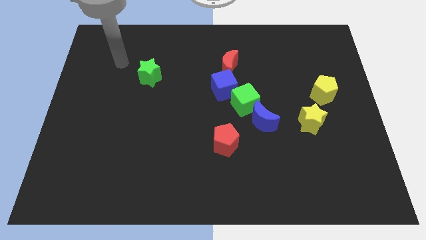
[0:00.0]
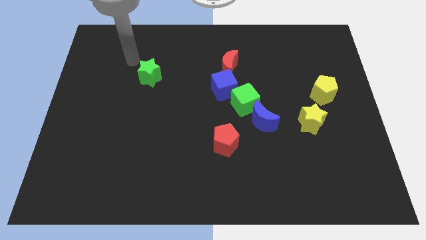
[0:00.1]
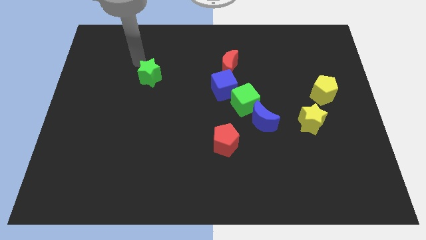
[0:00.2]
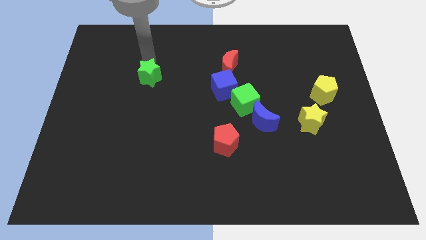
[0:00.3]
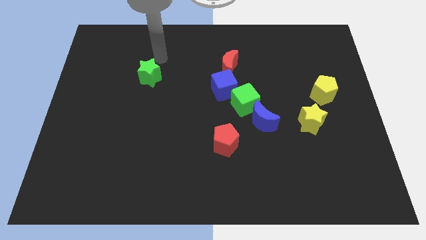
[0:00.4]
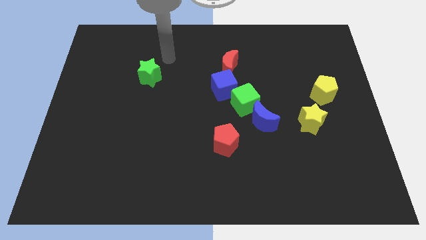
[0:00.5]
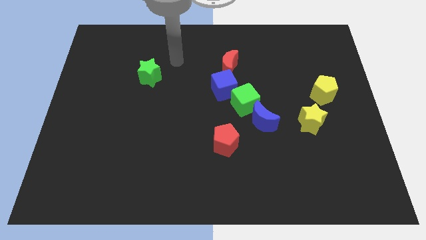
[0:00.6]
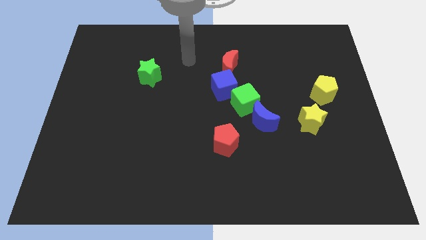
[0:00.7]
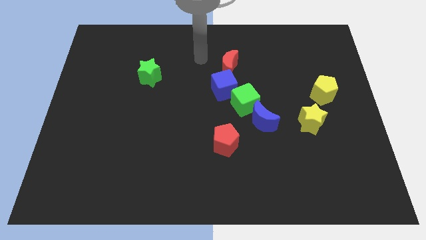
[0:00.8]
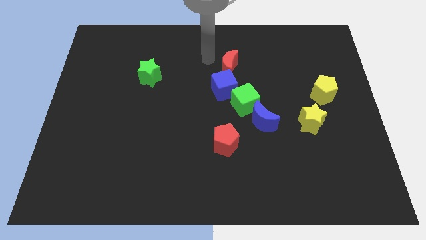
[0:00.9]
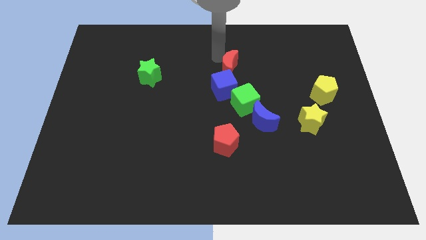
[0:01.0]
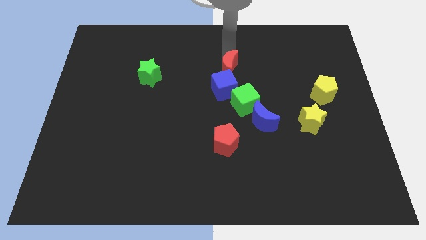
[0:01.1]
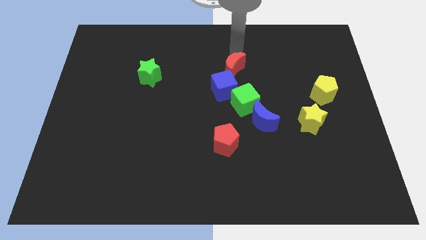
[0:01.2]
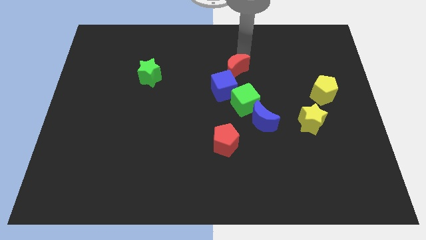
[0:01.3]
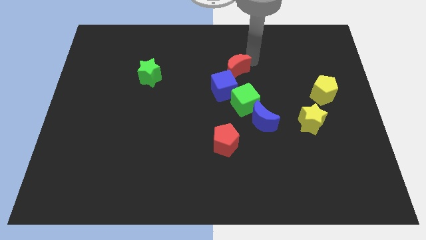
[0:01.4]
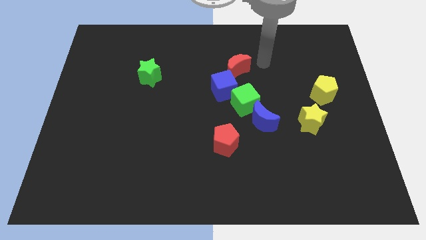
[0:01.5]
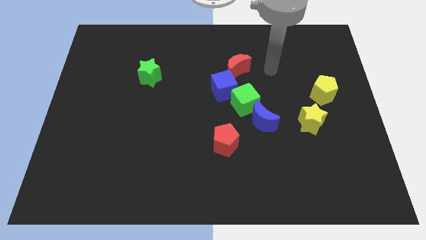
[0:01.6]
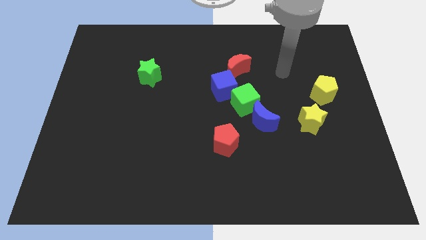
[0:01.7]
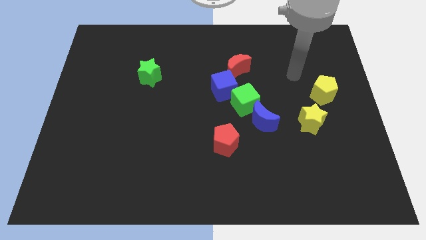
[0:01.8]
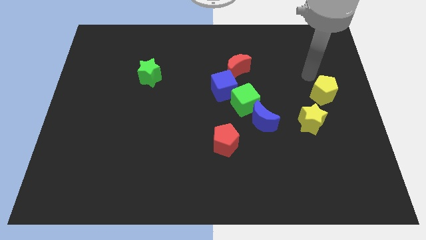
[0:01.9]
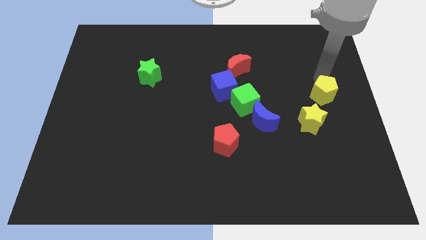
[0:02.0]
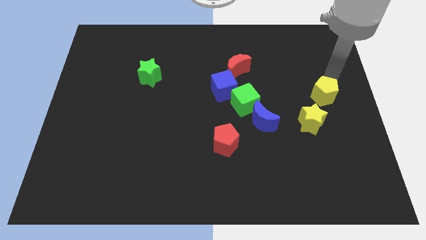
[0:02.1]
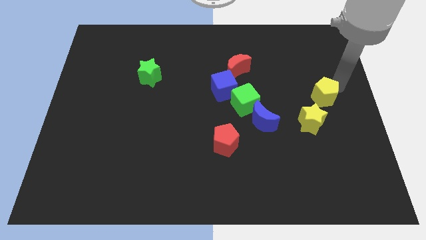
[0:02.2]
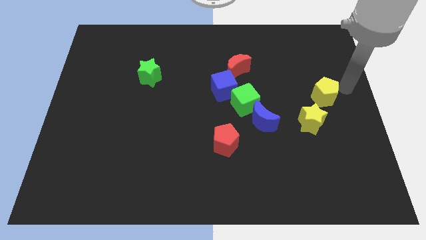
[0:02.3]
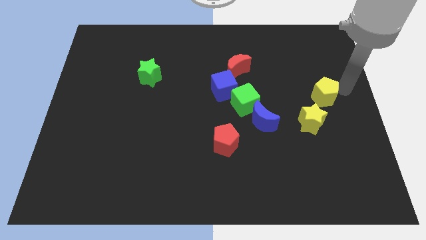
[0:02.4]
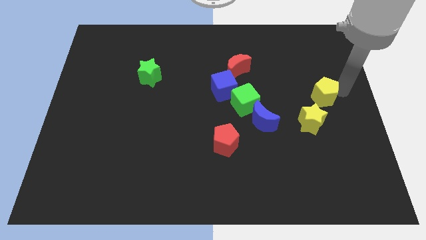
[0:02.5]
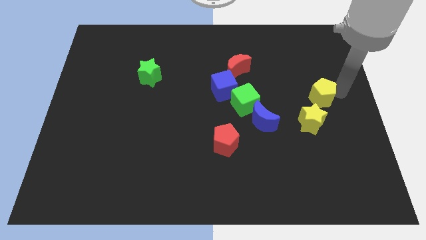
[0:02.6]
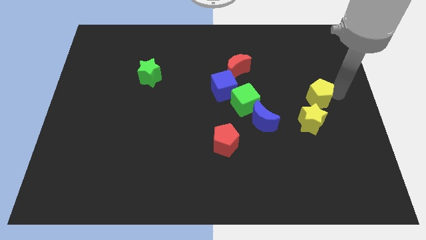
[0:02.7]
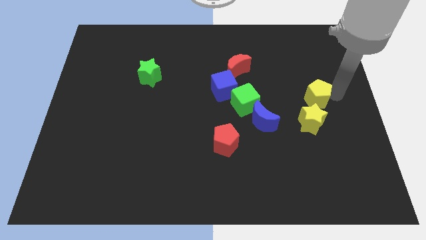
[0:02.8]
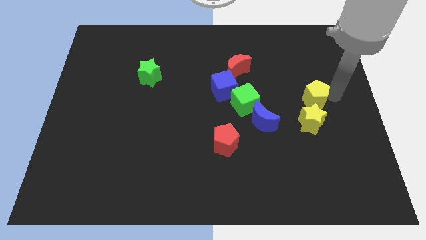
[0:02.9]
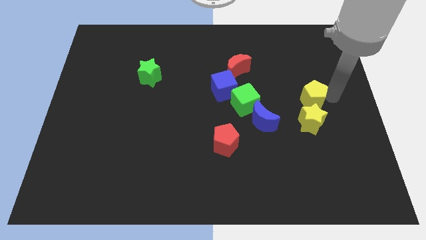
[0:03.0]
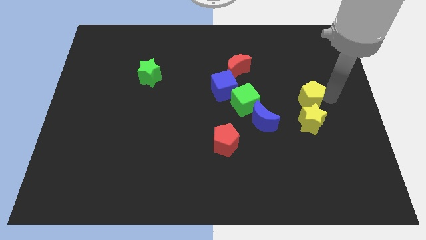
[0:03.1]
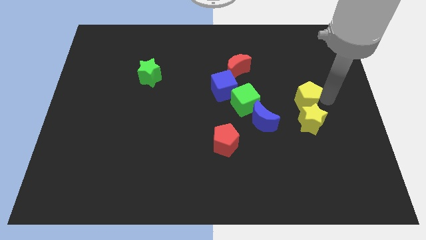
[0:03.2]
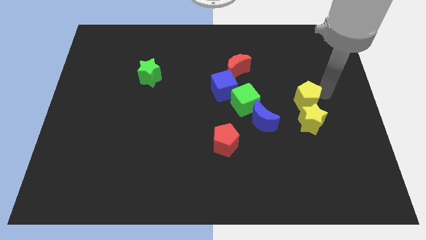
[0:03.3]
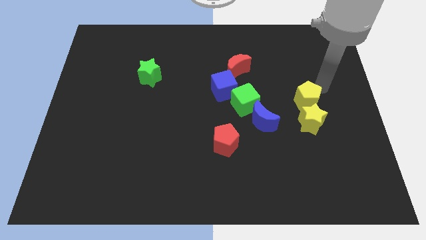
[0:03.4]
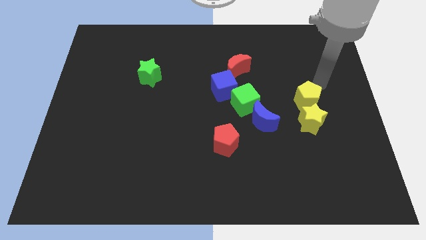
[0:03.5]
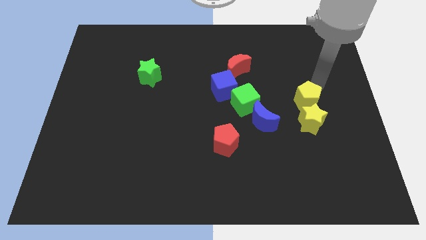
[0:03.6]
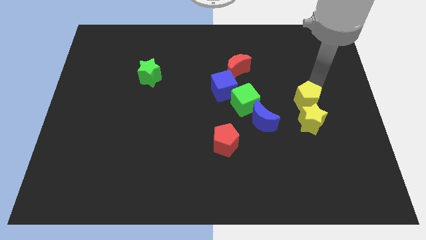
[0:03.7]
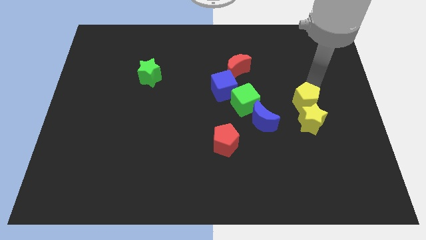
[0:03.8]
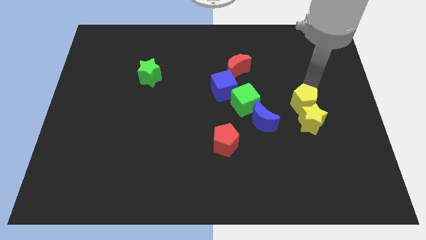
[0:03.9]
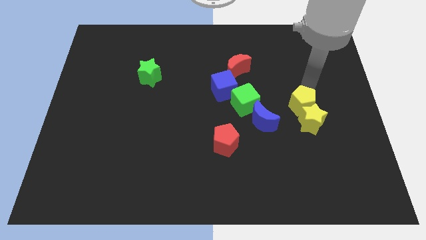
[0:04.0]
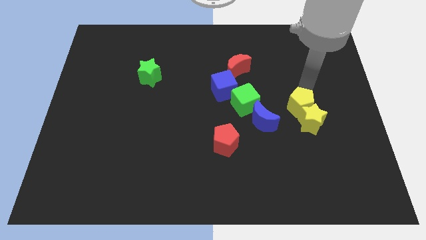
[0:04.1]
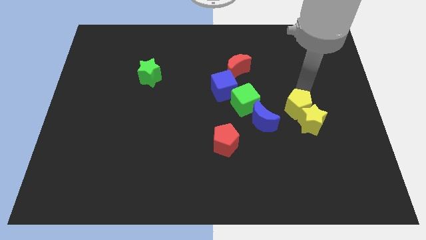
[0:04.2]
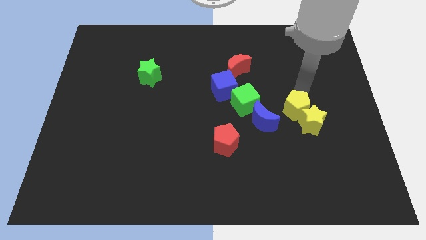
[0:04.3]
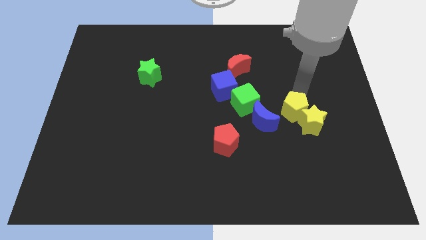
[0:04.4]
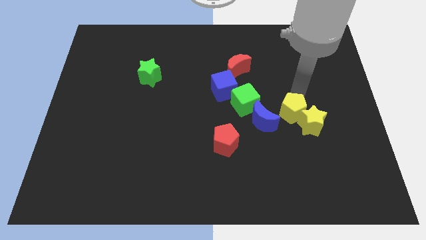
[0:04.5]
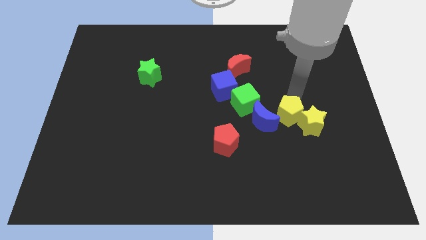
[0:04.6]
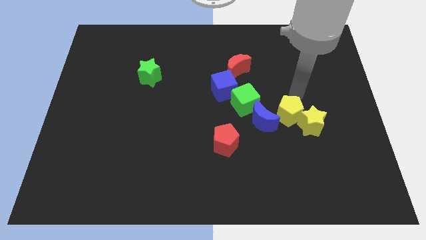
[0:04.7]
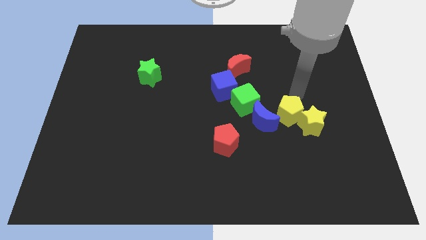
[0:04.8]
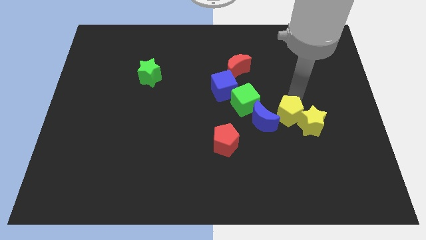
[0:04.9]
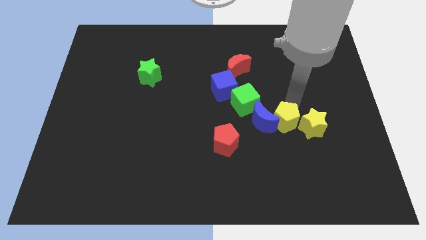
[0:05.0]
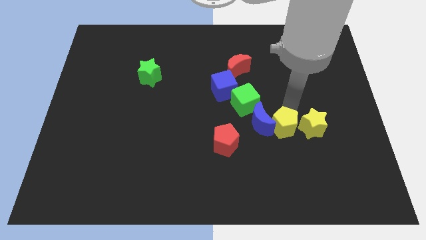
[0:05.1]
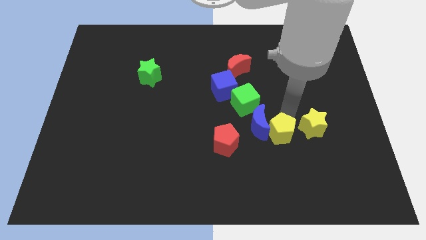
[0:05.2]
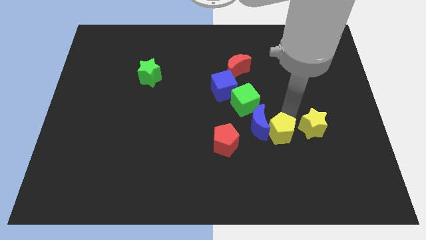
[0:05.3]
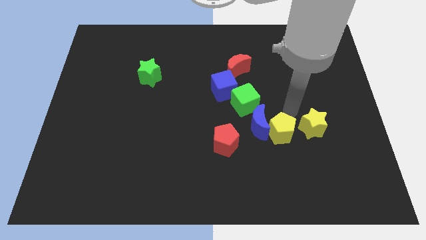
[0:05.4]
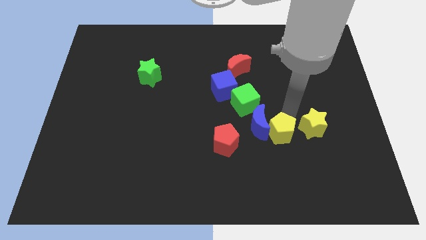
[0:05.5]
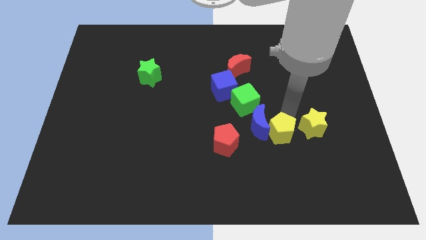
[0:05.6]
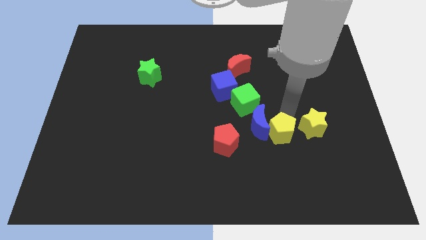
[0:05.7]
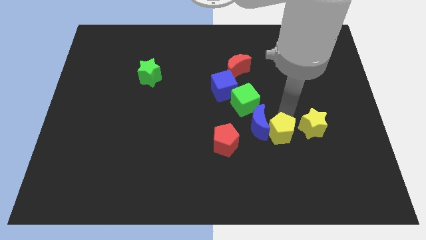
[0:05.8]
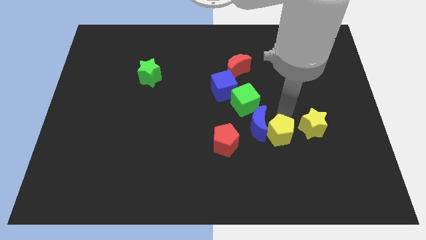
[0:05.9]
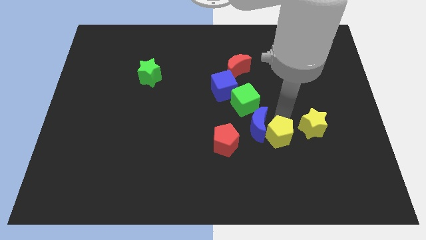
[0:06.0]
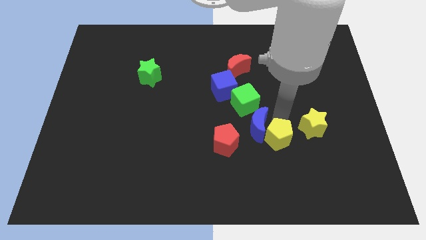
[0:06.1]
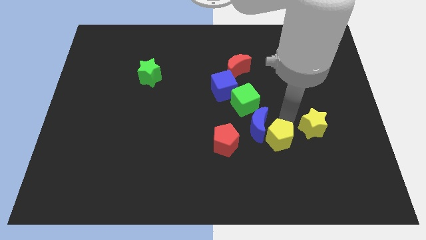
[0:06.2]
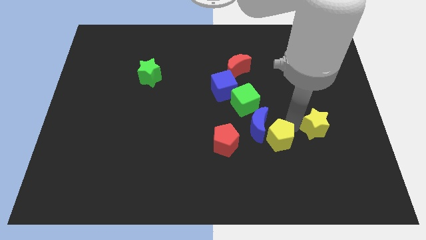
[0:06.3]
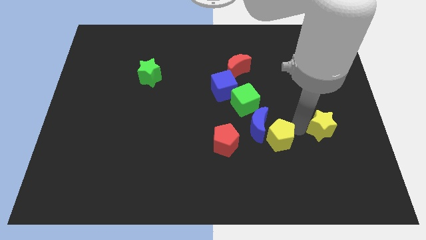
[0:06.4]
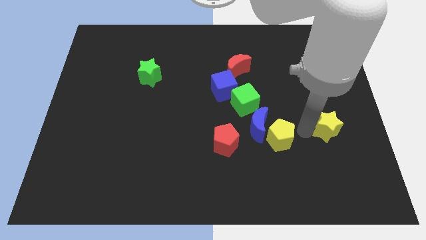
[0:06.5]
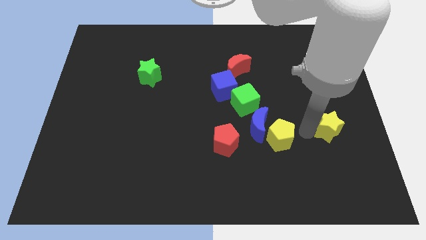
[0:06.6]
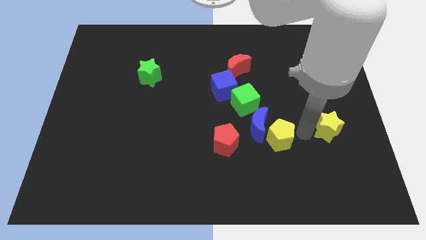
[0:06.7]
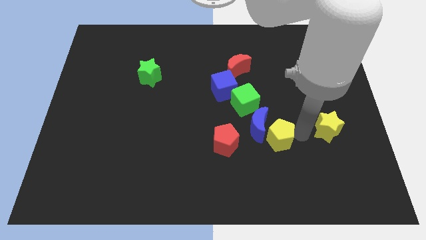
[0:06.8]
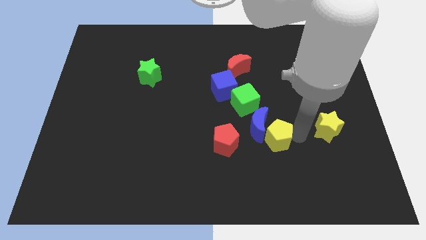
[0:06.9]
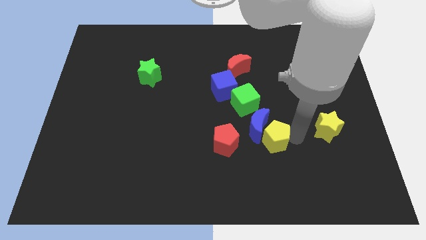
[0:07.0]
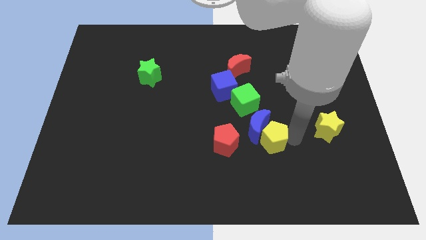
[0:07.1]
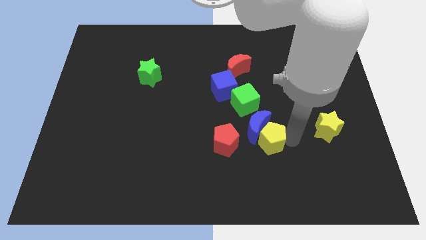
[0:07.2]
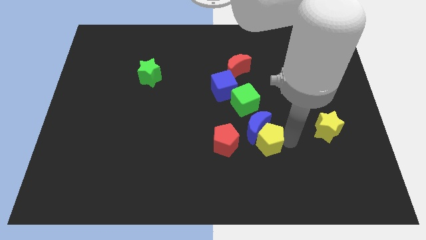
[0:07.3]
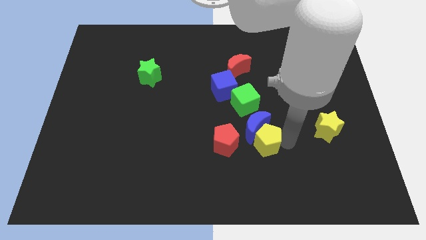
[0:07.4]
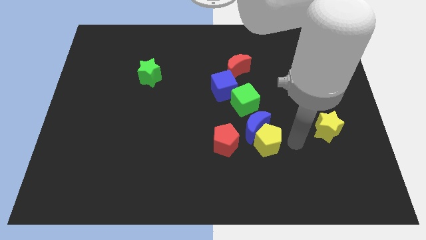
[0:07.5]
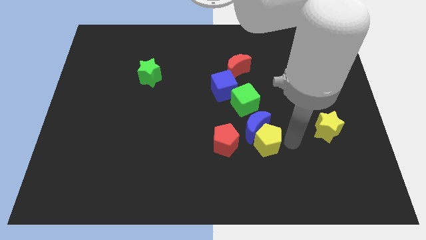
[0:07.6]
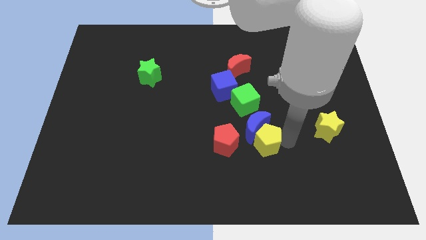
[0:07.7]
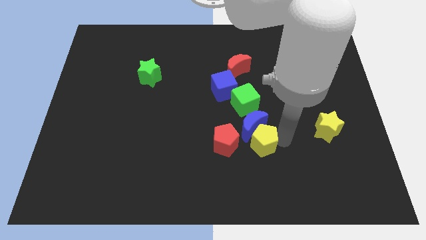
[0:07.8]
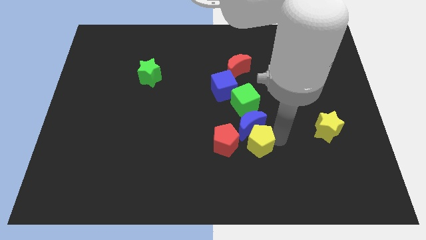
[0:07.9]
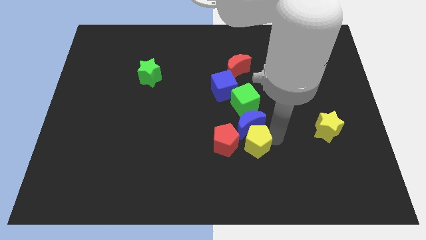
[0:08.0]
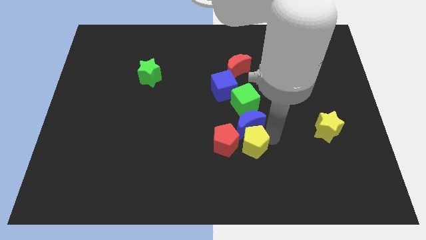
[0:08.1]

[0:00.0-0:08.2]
push the yellow pentagon next to the red pentagon

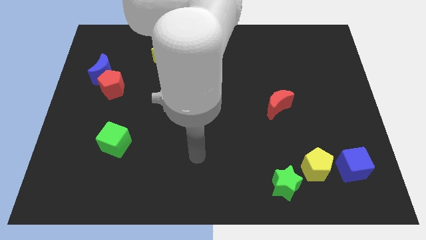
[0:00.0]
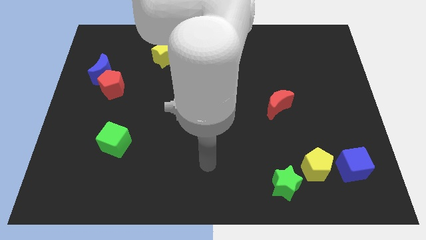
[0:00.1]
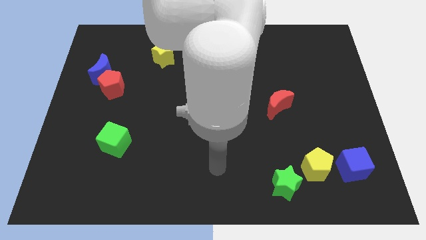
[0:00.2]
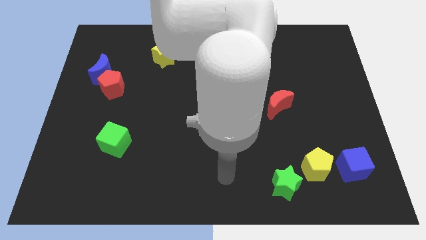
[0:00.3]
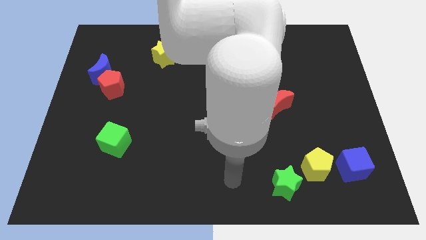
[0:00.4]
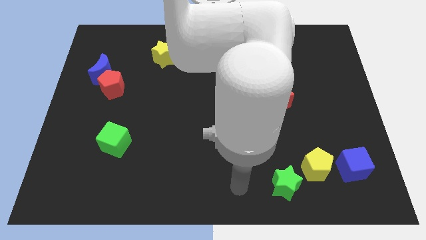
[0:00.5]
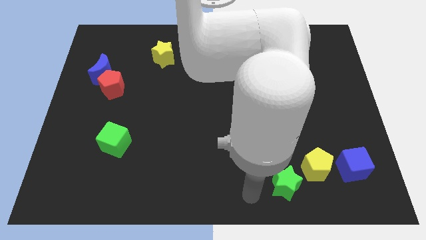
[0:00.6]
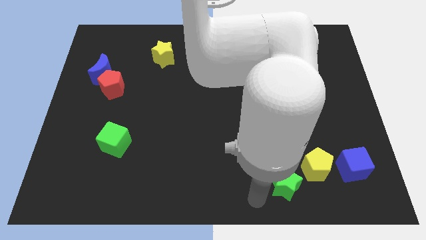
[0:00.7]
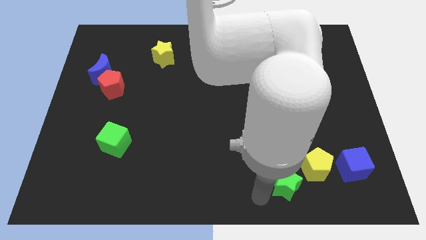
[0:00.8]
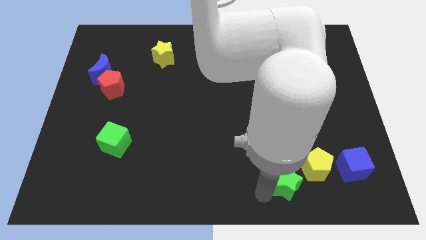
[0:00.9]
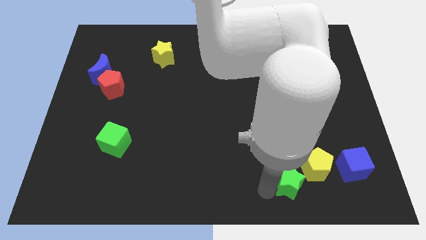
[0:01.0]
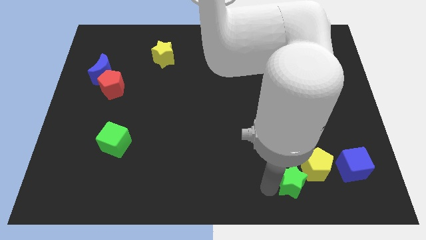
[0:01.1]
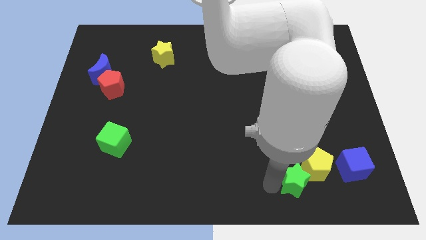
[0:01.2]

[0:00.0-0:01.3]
slide the green star to the yellow pentagon
